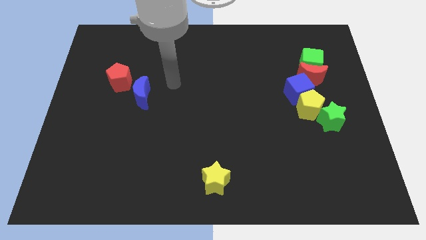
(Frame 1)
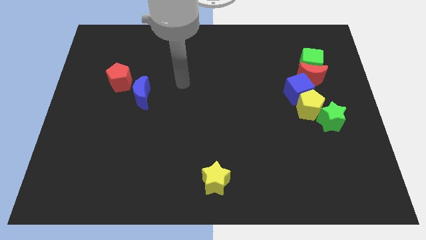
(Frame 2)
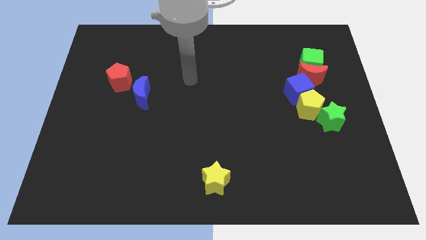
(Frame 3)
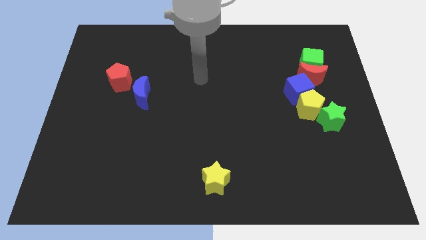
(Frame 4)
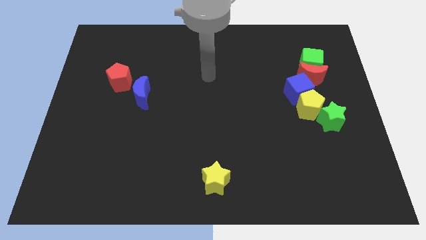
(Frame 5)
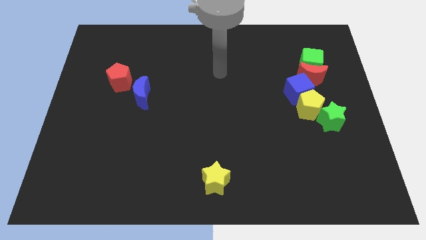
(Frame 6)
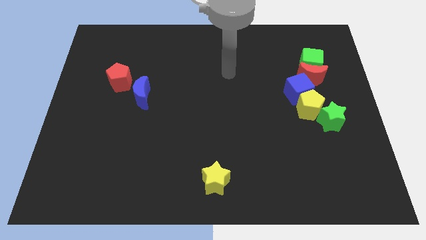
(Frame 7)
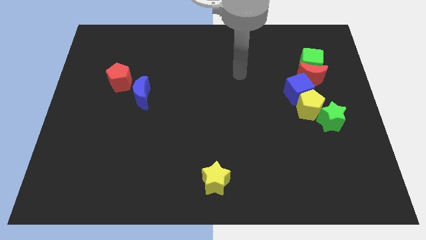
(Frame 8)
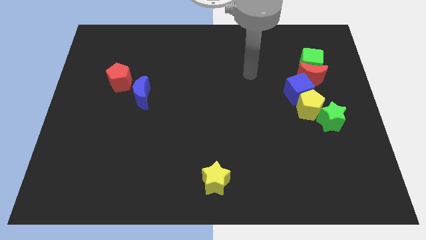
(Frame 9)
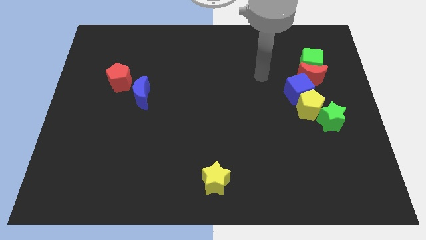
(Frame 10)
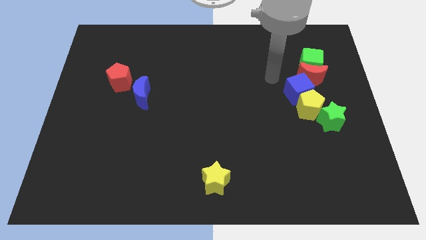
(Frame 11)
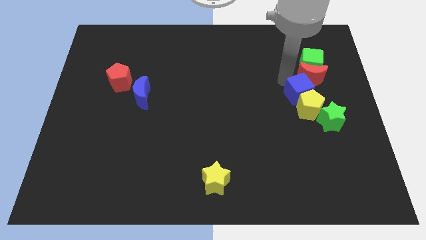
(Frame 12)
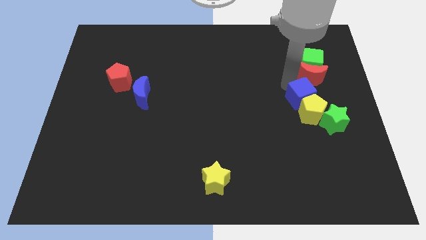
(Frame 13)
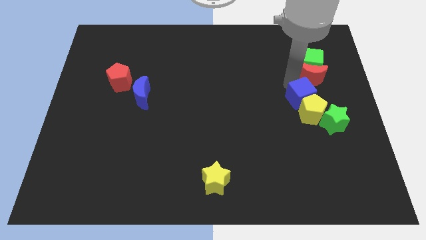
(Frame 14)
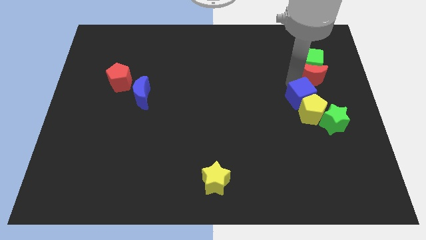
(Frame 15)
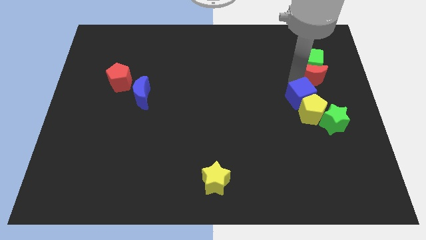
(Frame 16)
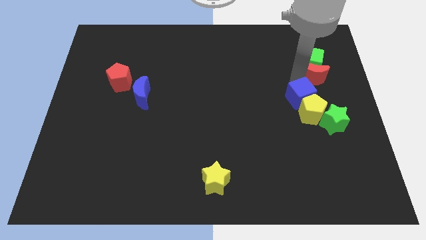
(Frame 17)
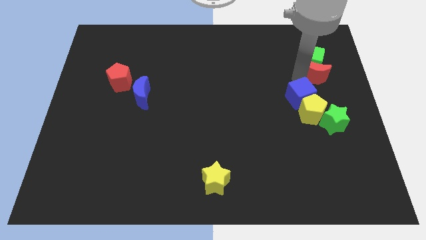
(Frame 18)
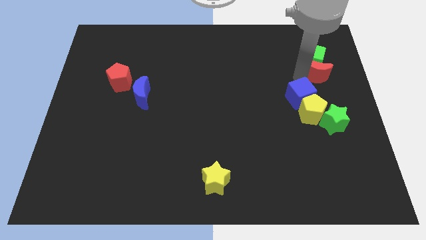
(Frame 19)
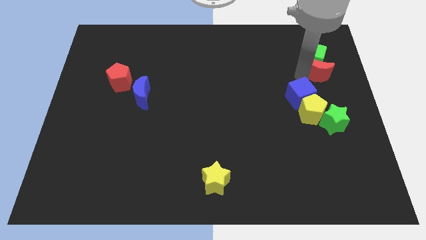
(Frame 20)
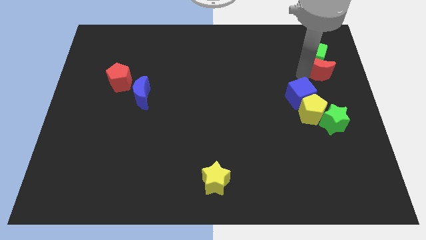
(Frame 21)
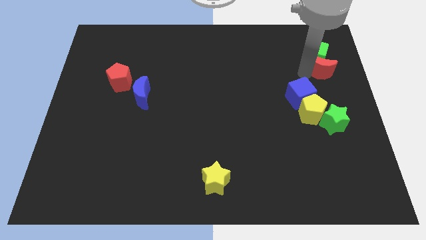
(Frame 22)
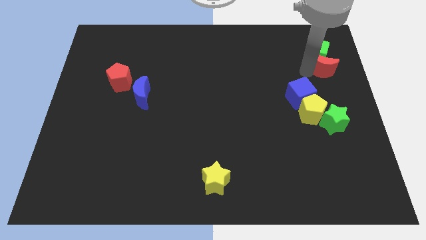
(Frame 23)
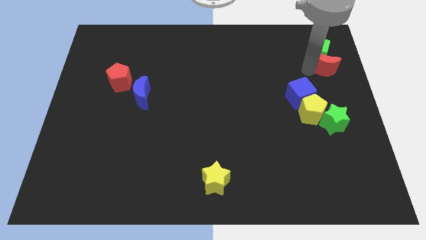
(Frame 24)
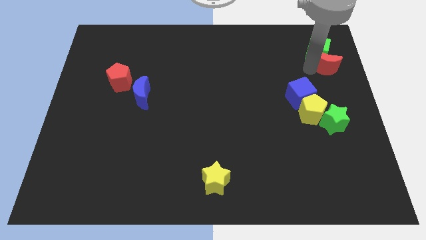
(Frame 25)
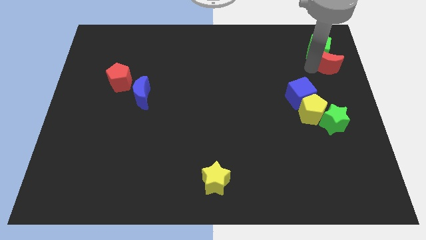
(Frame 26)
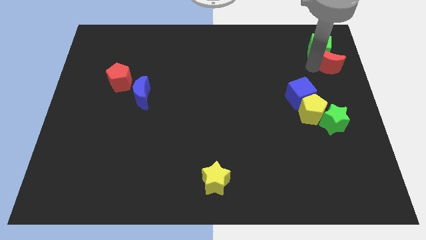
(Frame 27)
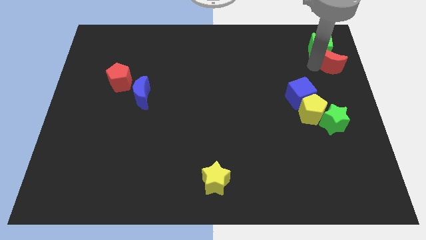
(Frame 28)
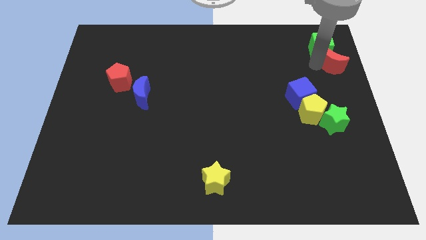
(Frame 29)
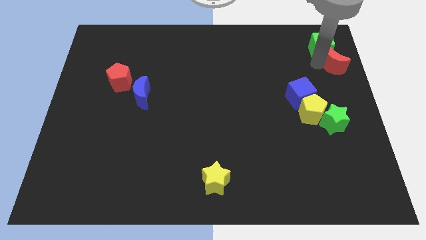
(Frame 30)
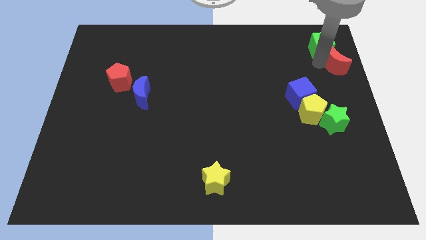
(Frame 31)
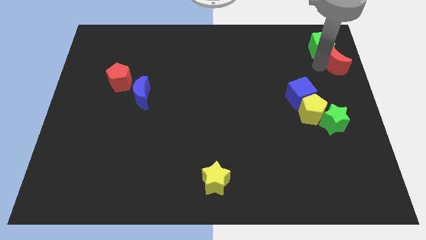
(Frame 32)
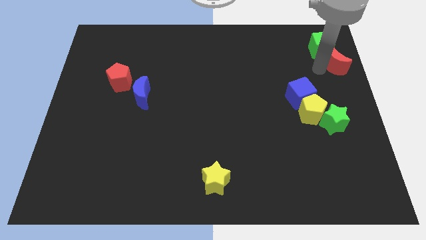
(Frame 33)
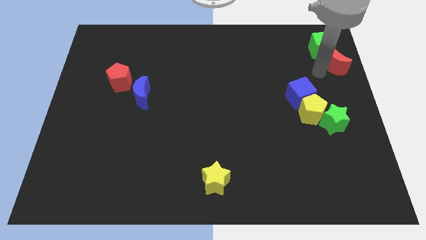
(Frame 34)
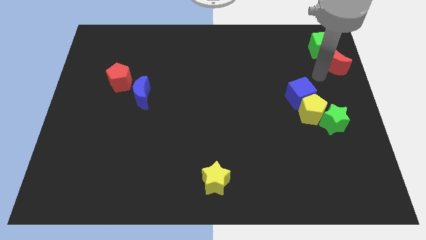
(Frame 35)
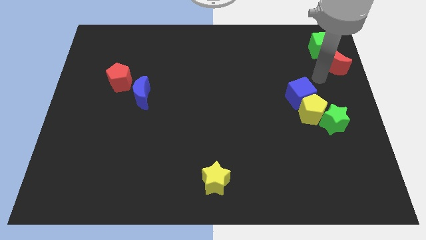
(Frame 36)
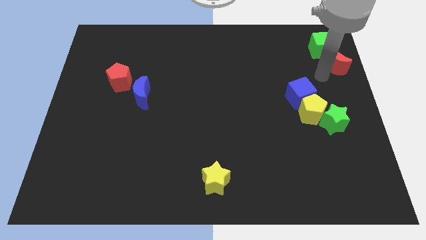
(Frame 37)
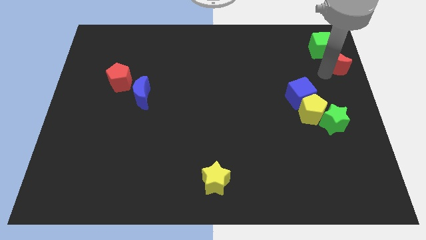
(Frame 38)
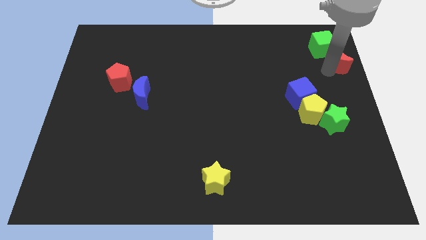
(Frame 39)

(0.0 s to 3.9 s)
move the red moon away from the green cube, blue cube, and yellow pentagon

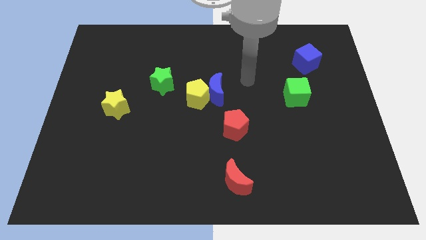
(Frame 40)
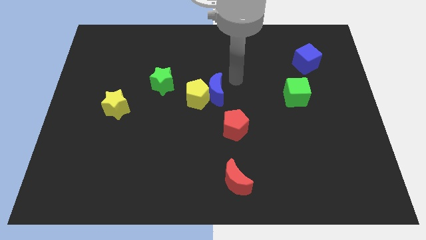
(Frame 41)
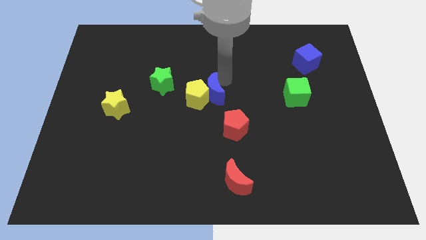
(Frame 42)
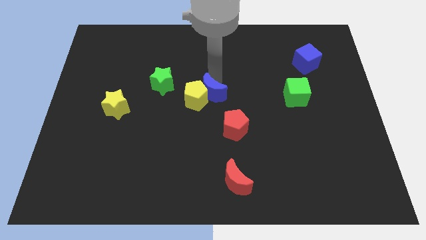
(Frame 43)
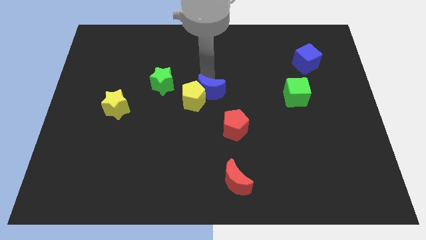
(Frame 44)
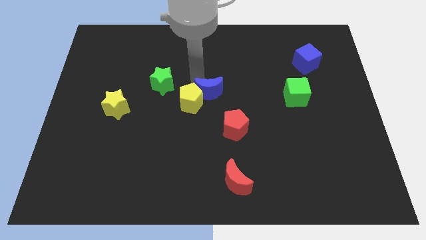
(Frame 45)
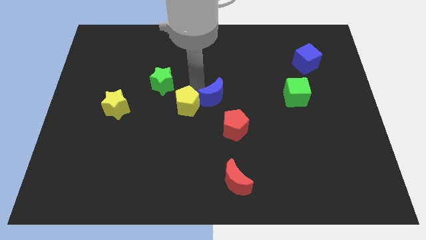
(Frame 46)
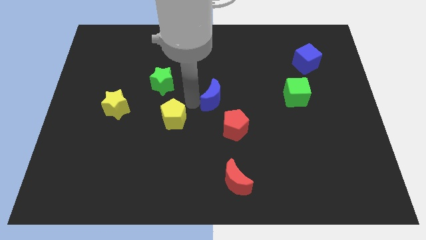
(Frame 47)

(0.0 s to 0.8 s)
move the blue moon away from the yellow pentagon

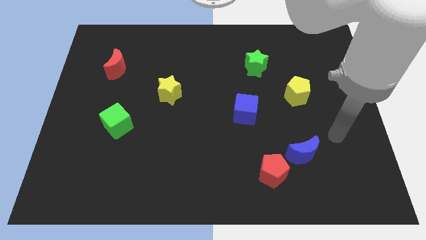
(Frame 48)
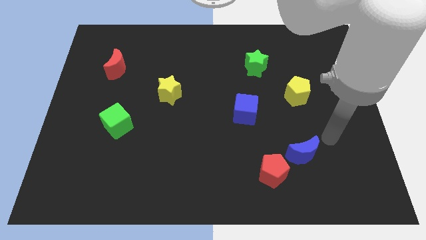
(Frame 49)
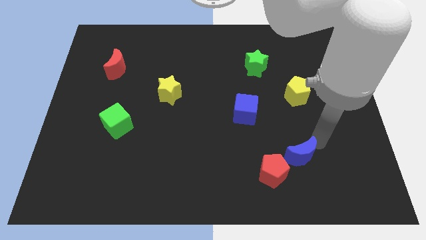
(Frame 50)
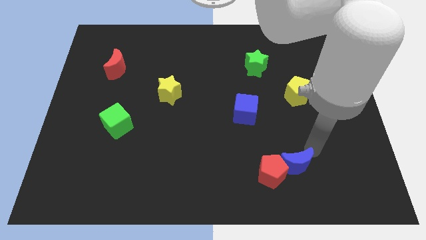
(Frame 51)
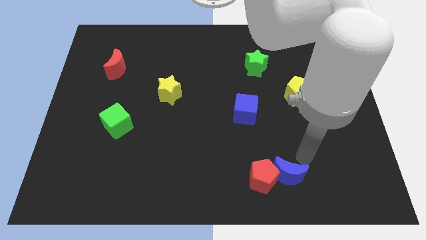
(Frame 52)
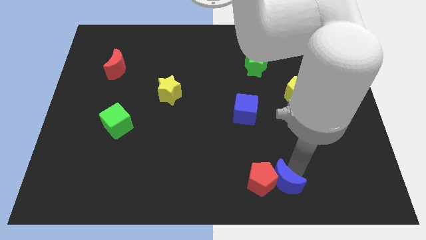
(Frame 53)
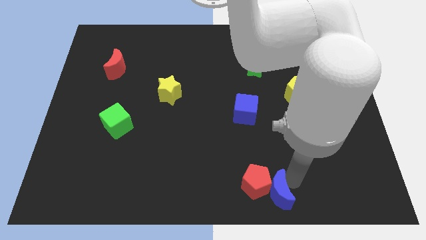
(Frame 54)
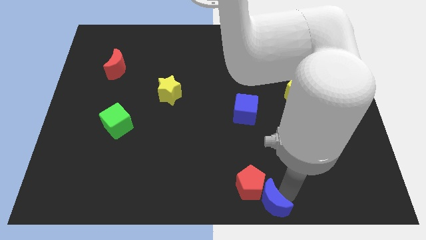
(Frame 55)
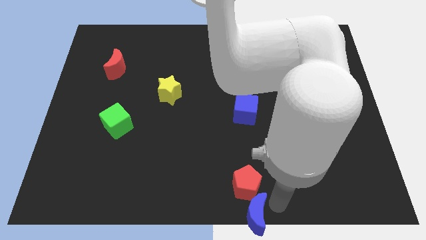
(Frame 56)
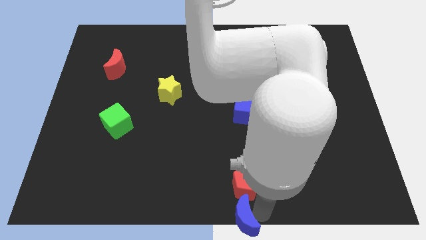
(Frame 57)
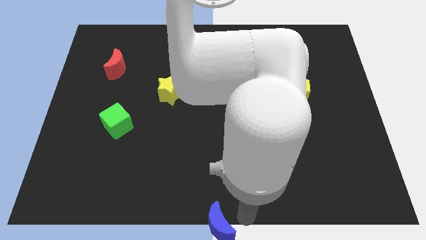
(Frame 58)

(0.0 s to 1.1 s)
separate the red pentagon from the blue moon

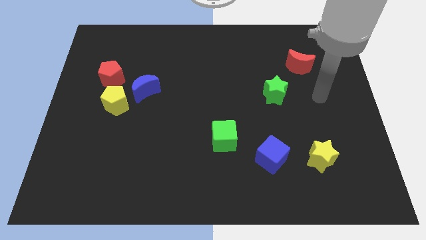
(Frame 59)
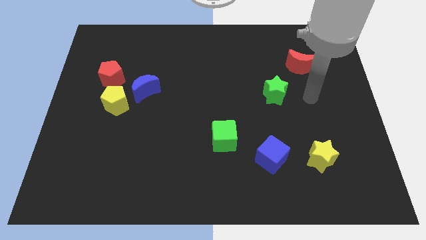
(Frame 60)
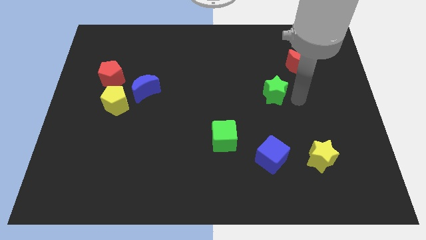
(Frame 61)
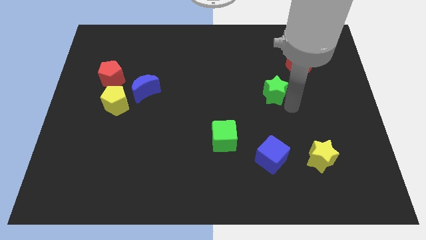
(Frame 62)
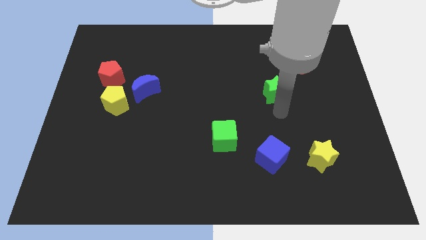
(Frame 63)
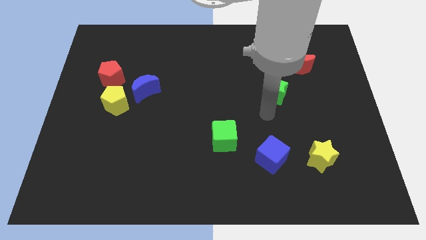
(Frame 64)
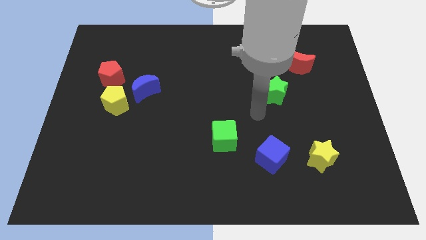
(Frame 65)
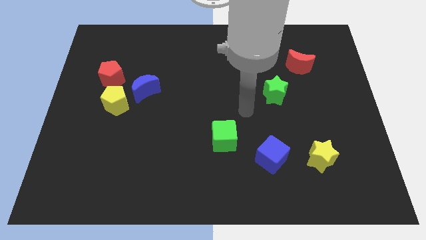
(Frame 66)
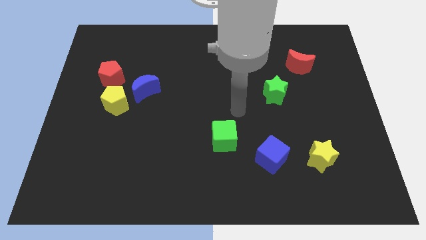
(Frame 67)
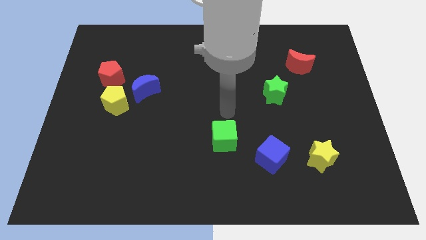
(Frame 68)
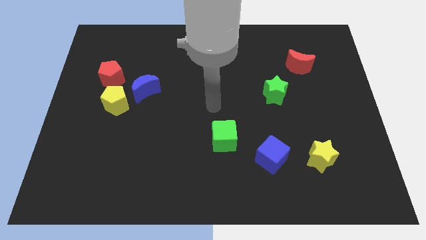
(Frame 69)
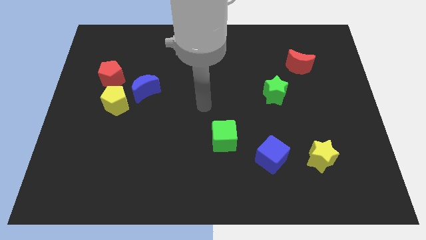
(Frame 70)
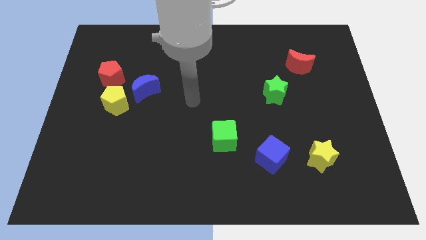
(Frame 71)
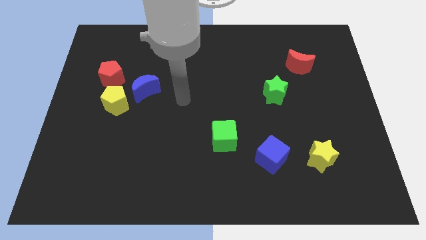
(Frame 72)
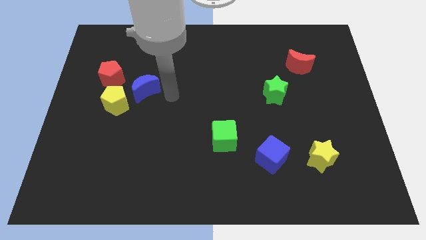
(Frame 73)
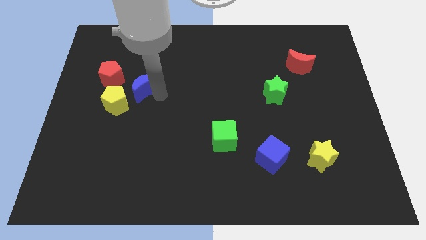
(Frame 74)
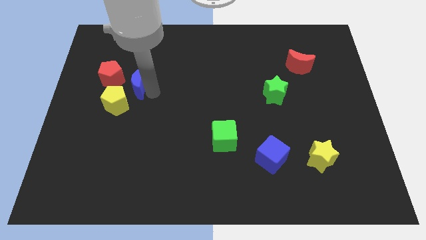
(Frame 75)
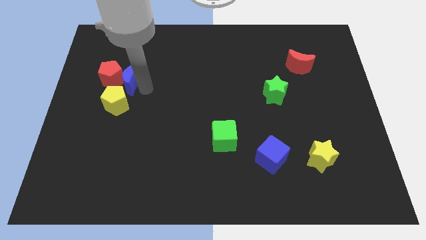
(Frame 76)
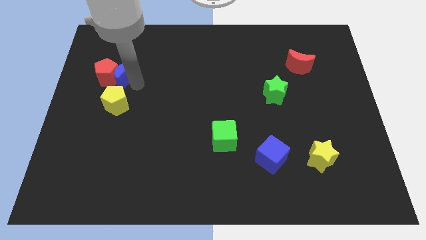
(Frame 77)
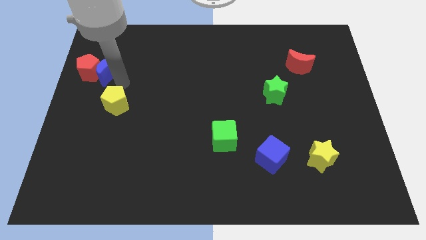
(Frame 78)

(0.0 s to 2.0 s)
move the yellow pentagon away from the blue moon and red pentagon

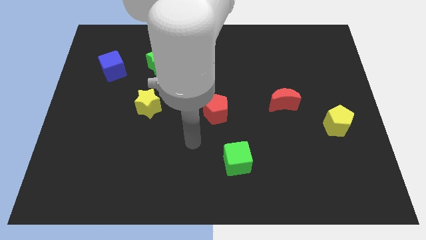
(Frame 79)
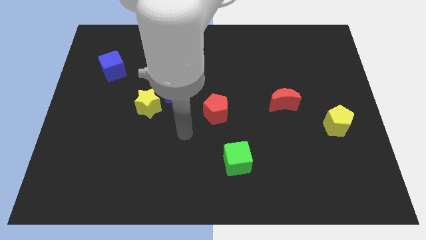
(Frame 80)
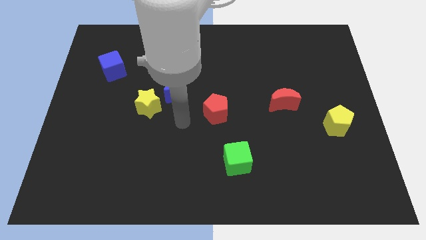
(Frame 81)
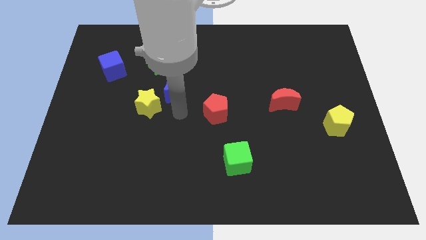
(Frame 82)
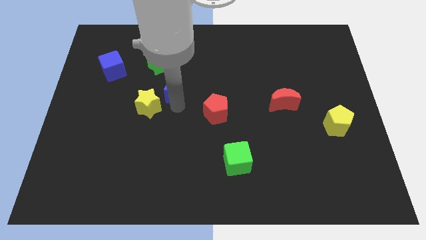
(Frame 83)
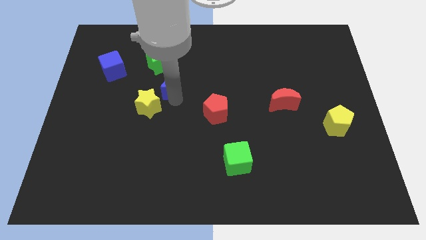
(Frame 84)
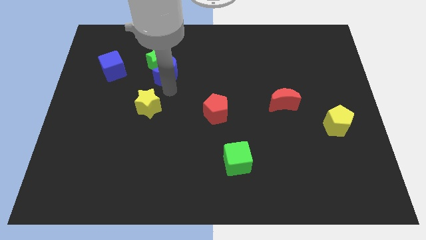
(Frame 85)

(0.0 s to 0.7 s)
separate the yellow star from the blue moon

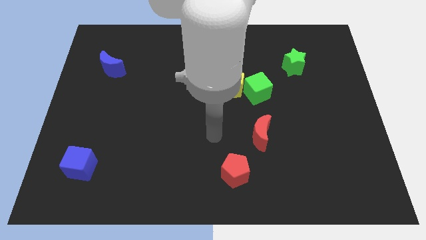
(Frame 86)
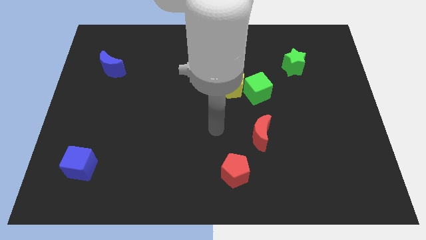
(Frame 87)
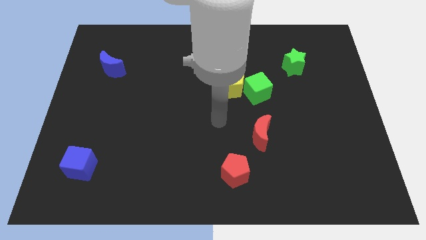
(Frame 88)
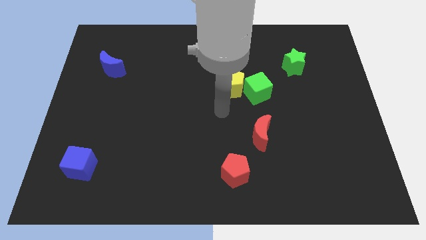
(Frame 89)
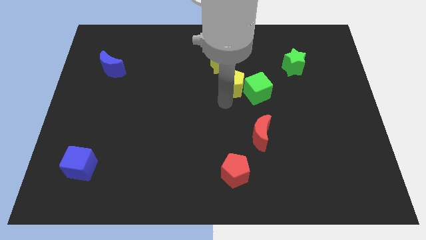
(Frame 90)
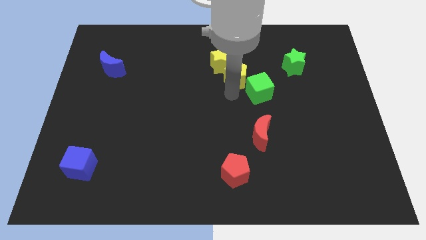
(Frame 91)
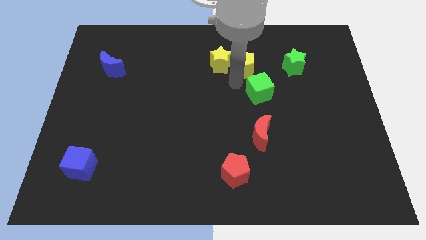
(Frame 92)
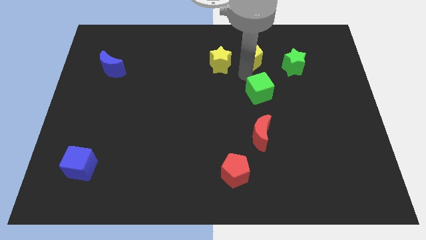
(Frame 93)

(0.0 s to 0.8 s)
separate the green cube from the yellow pentagon
